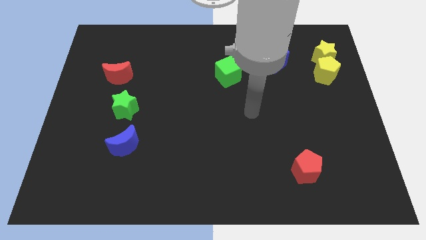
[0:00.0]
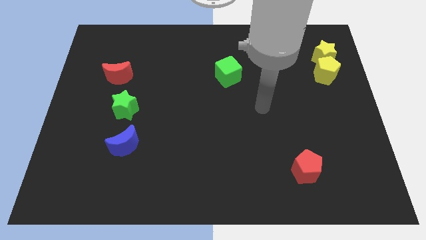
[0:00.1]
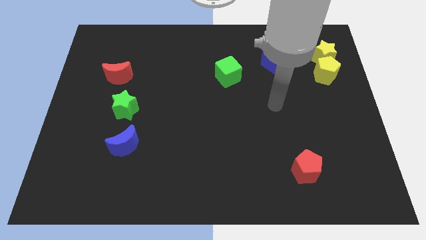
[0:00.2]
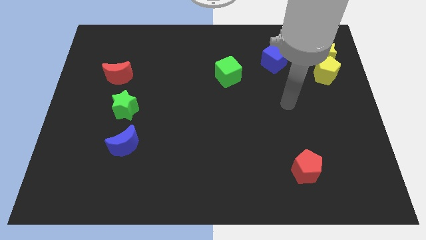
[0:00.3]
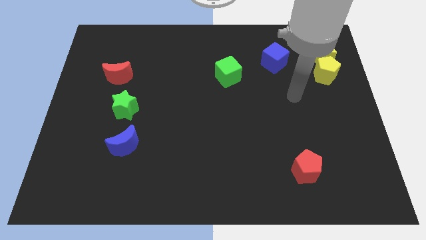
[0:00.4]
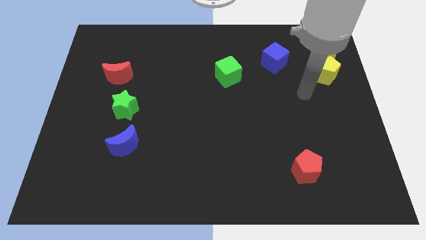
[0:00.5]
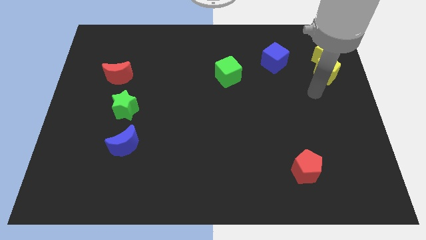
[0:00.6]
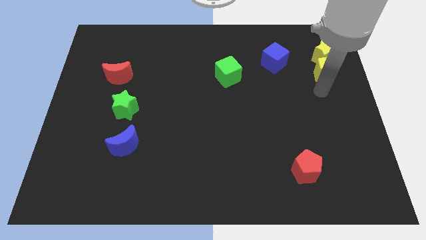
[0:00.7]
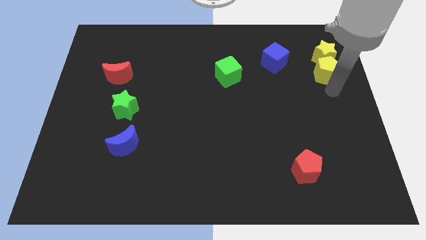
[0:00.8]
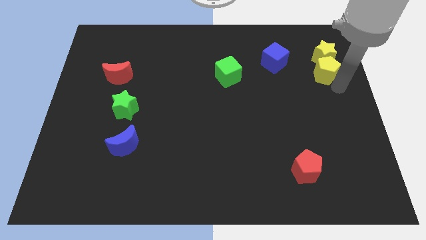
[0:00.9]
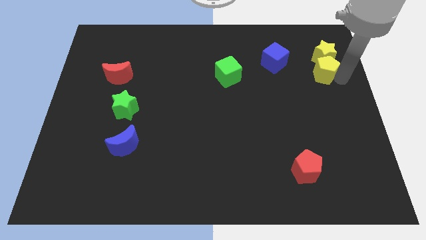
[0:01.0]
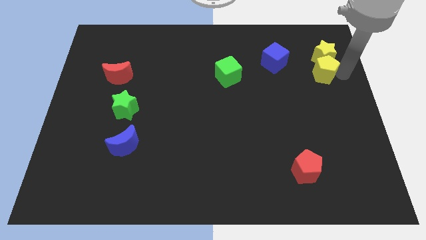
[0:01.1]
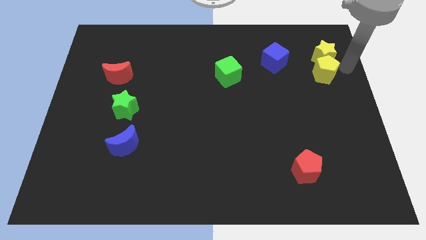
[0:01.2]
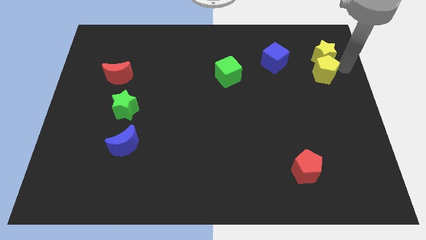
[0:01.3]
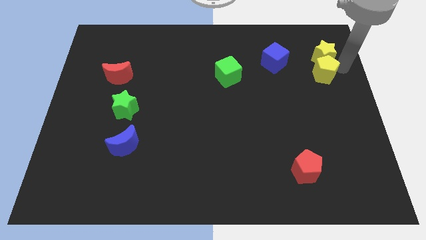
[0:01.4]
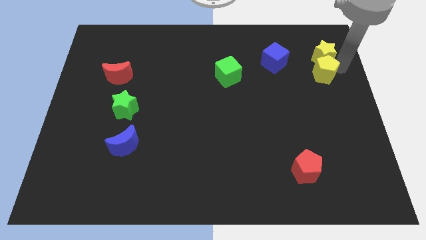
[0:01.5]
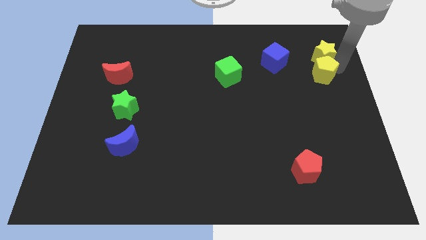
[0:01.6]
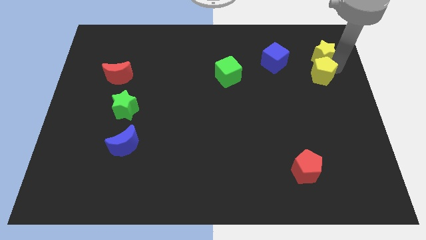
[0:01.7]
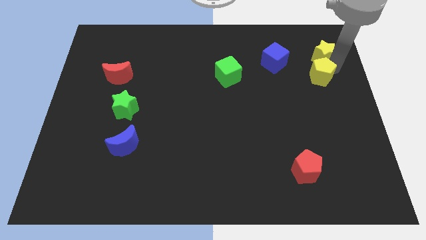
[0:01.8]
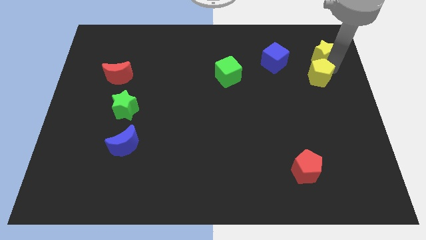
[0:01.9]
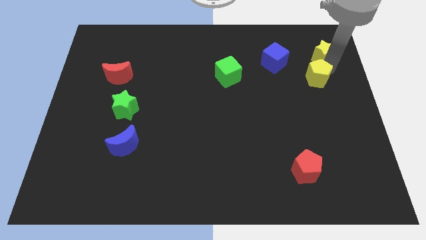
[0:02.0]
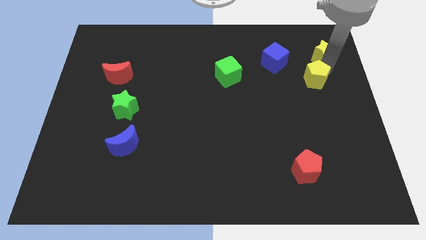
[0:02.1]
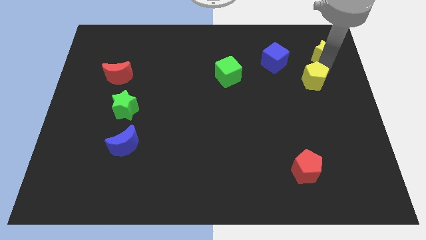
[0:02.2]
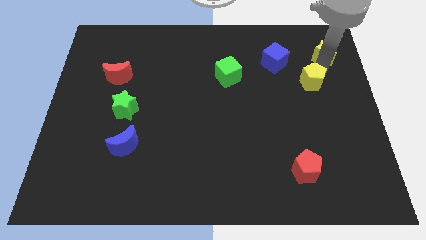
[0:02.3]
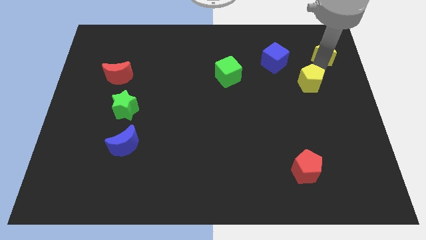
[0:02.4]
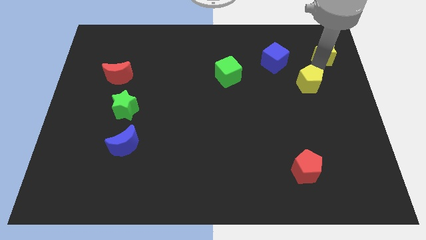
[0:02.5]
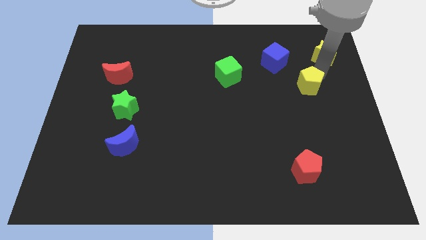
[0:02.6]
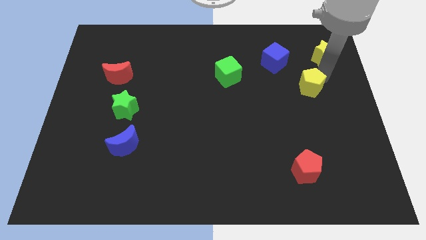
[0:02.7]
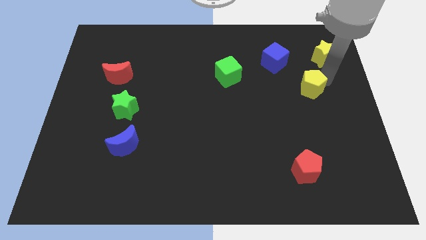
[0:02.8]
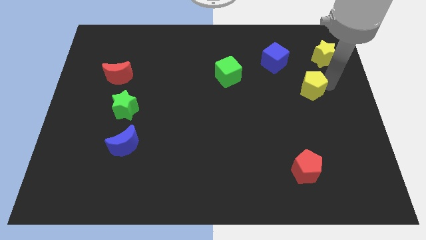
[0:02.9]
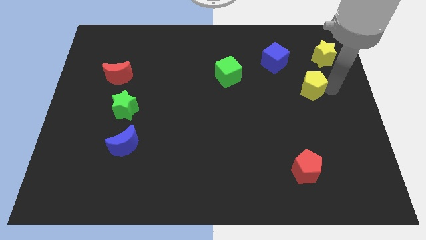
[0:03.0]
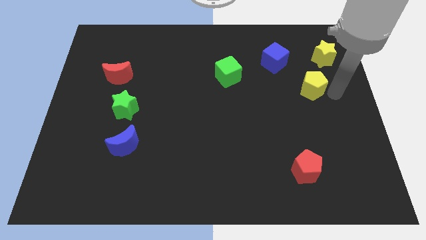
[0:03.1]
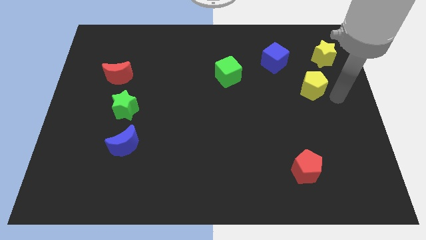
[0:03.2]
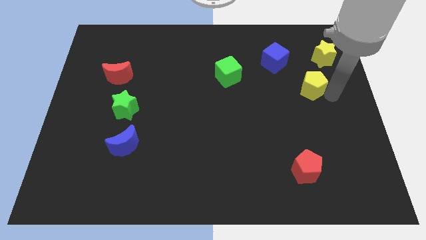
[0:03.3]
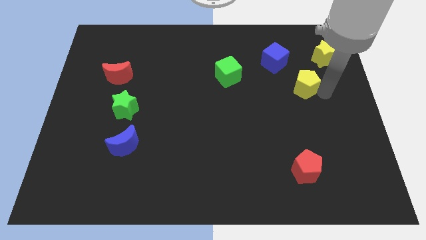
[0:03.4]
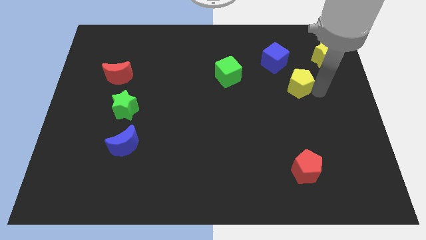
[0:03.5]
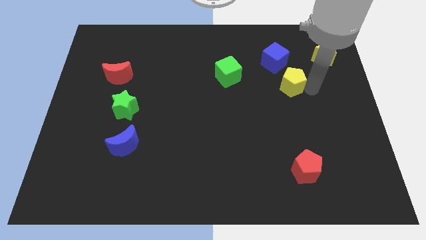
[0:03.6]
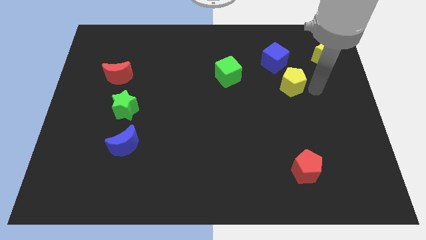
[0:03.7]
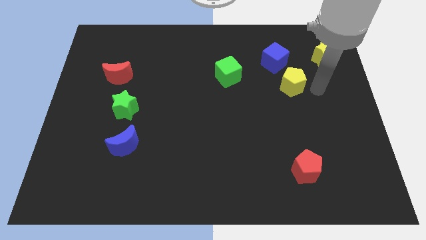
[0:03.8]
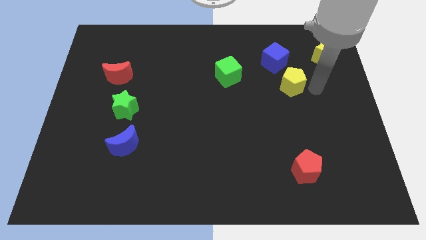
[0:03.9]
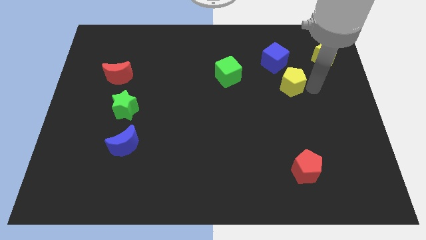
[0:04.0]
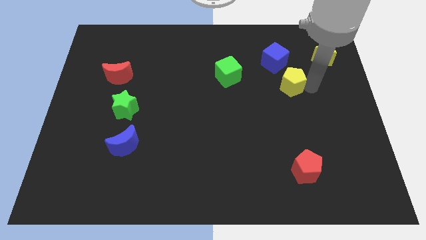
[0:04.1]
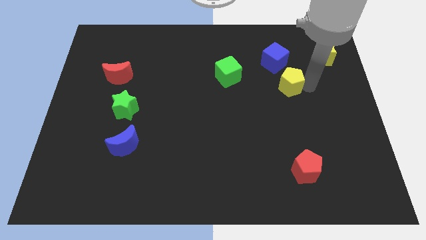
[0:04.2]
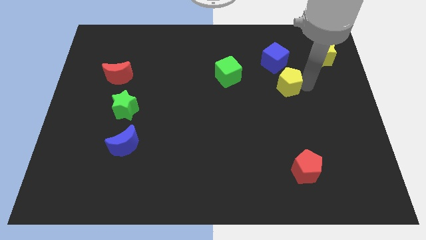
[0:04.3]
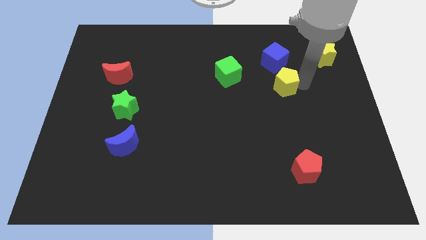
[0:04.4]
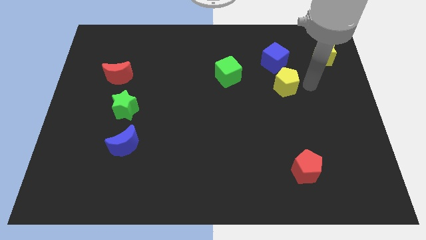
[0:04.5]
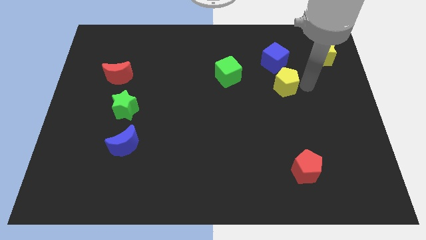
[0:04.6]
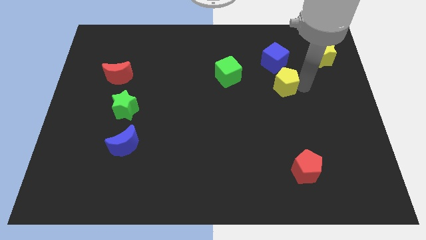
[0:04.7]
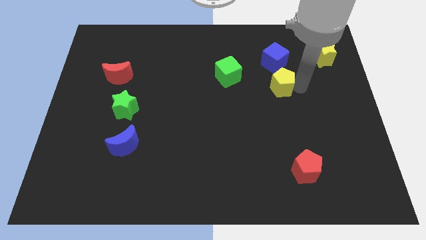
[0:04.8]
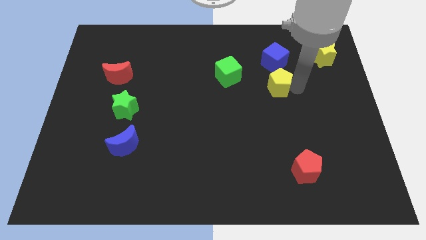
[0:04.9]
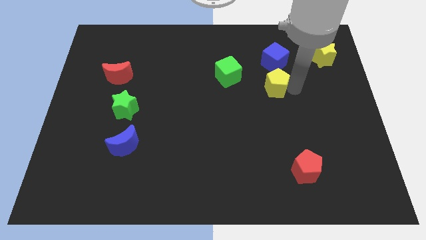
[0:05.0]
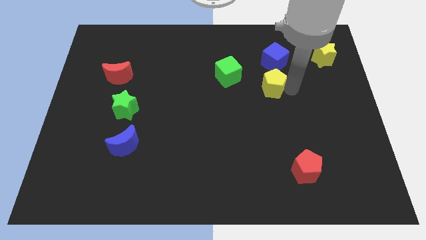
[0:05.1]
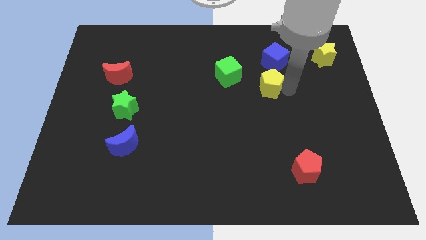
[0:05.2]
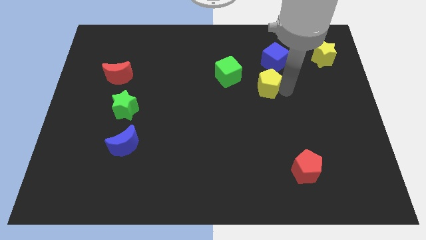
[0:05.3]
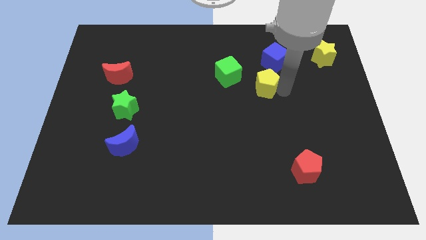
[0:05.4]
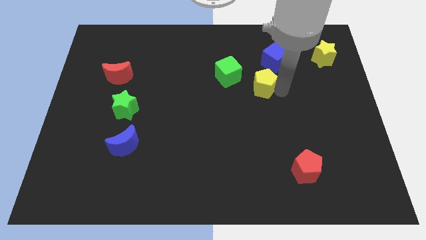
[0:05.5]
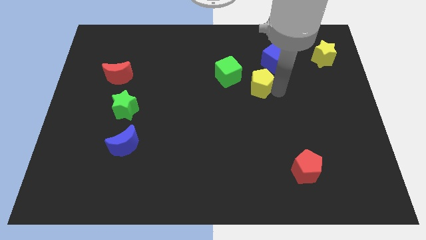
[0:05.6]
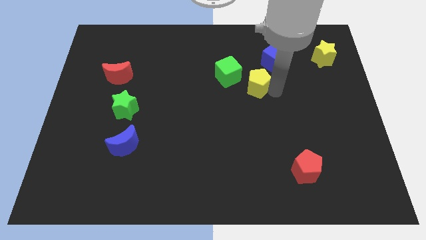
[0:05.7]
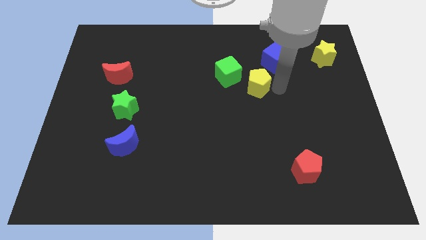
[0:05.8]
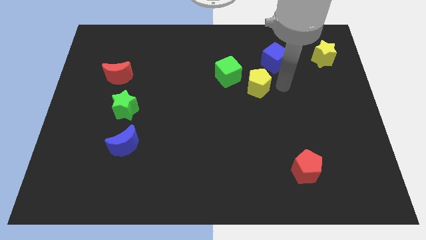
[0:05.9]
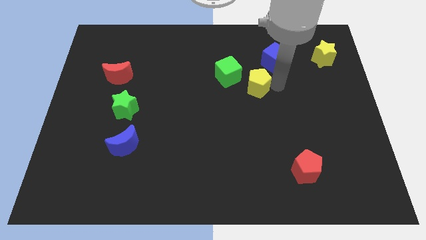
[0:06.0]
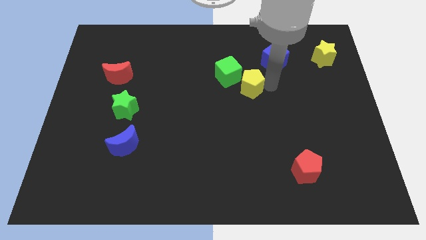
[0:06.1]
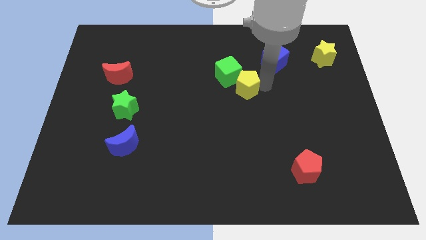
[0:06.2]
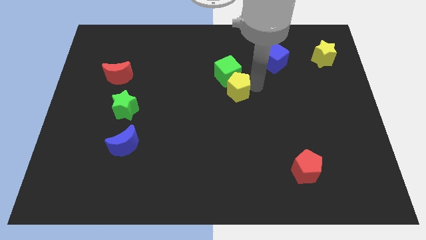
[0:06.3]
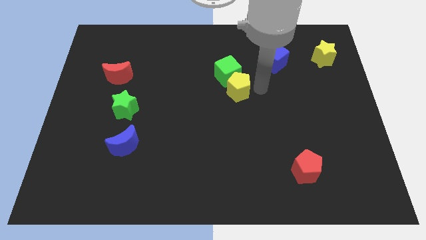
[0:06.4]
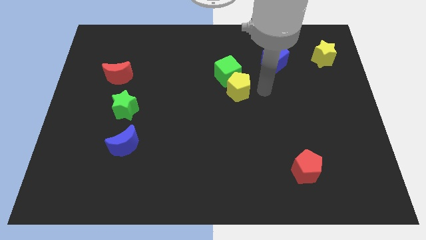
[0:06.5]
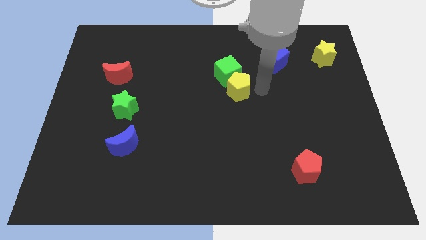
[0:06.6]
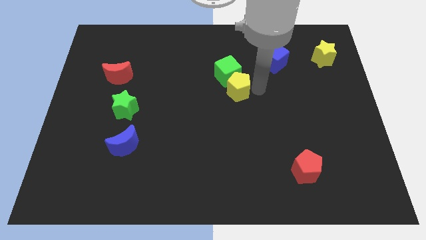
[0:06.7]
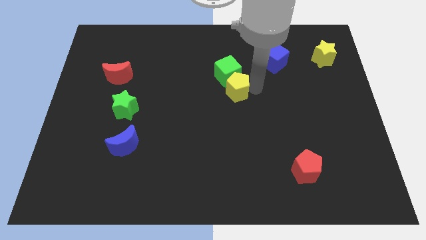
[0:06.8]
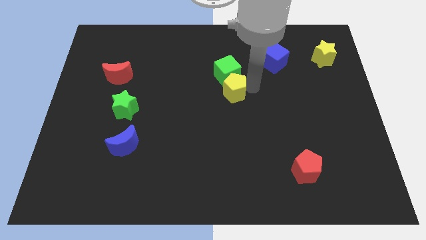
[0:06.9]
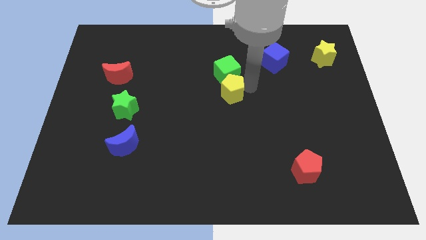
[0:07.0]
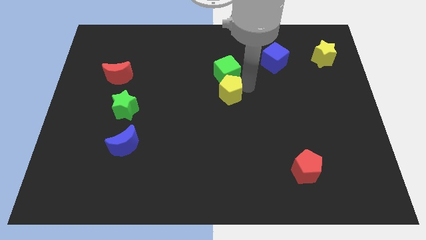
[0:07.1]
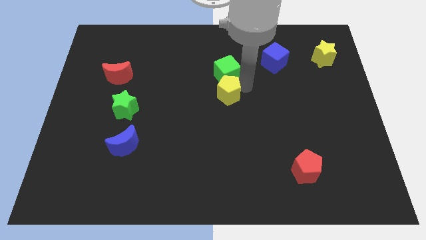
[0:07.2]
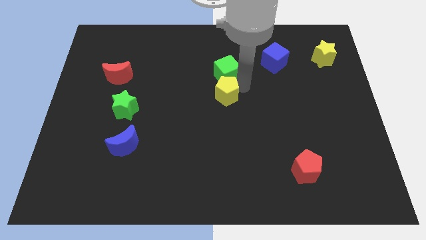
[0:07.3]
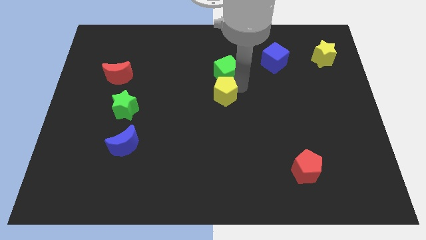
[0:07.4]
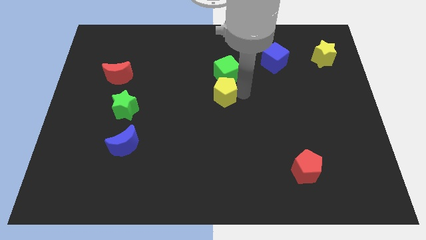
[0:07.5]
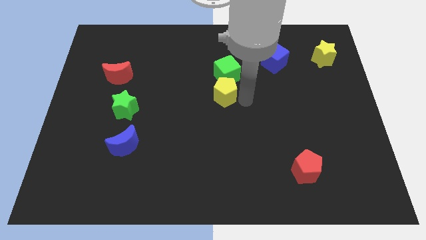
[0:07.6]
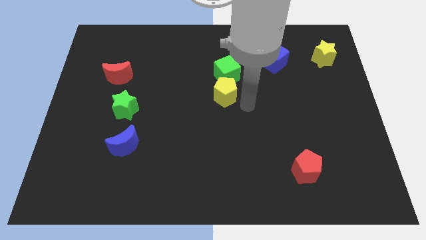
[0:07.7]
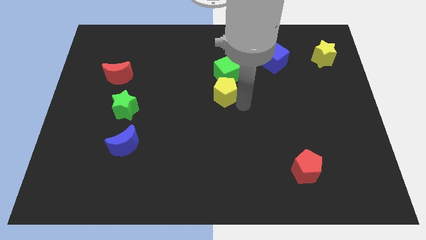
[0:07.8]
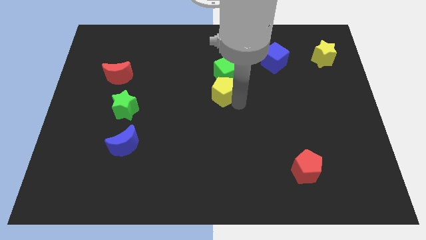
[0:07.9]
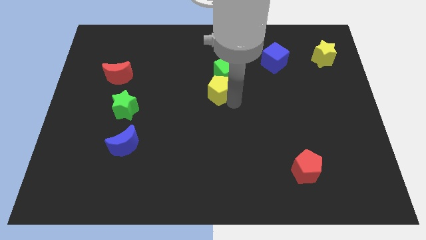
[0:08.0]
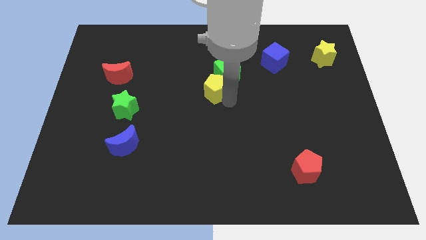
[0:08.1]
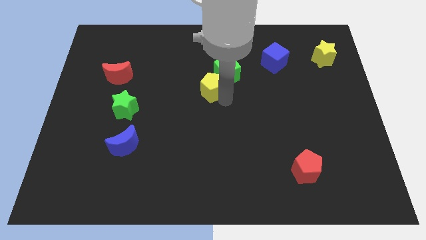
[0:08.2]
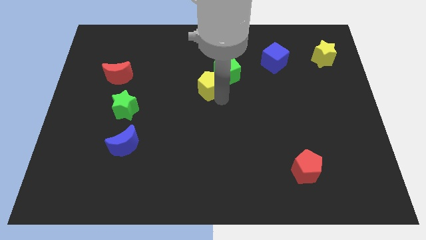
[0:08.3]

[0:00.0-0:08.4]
put the yellow pentagon left of the green cube
